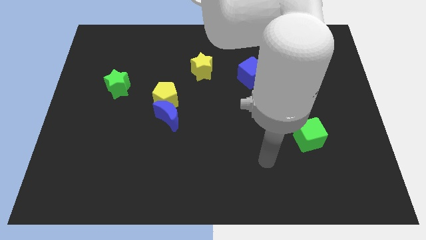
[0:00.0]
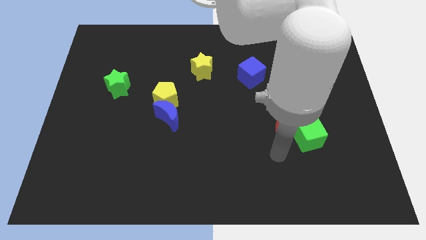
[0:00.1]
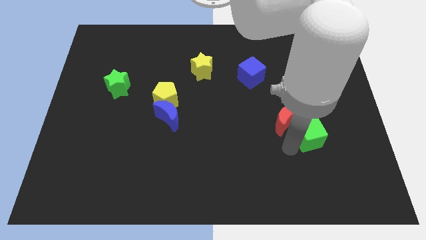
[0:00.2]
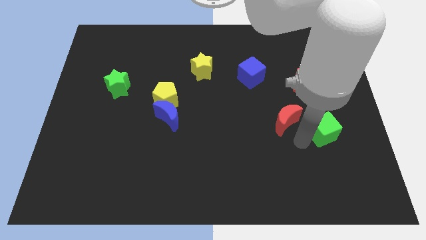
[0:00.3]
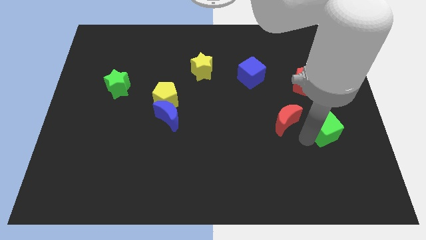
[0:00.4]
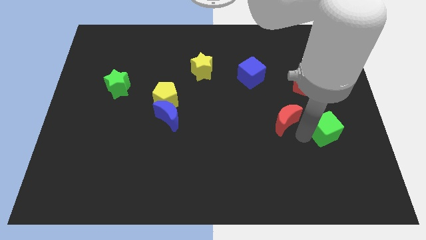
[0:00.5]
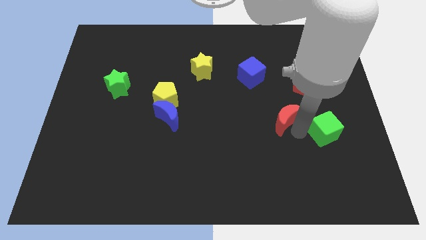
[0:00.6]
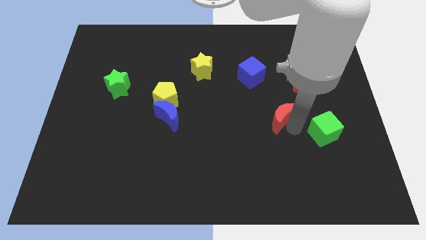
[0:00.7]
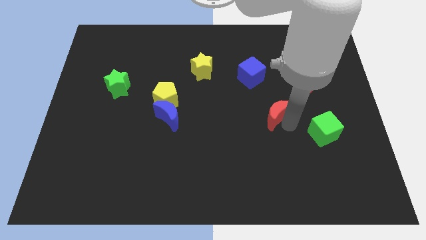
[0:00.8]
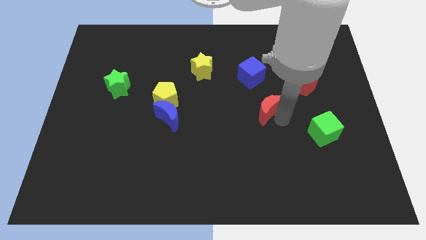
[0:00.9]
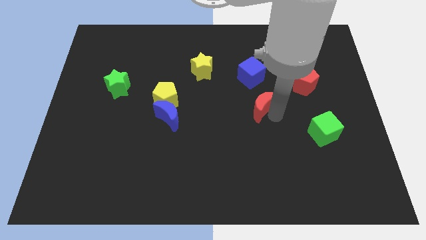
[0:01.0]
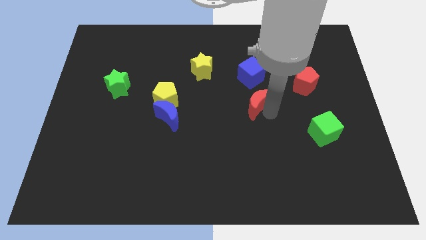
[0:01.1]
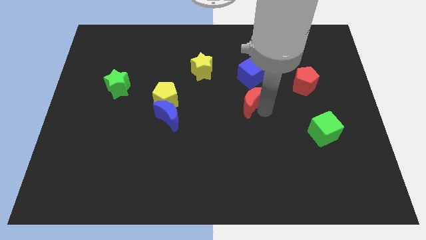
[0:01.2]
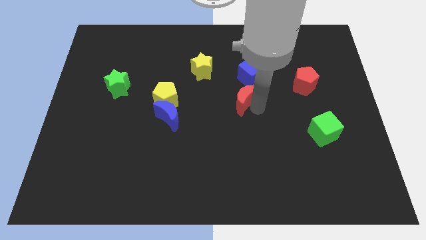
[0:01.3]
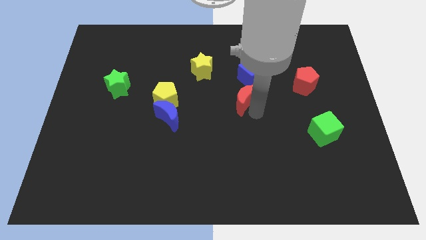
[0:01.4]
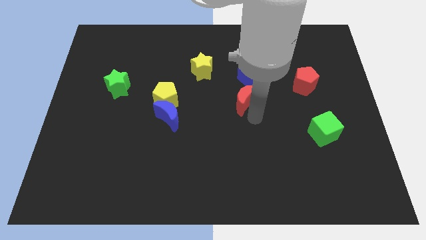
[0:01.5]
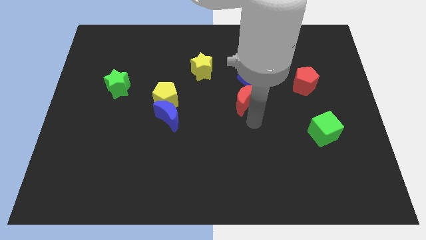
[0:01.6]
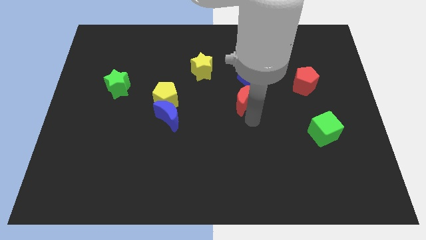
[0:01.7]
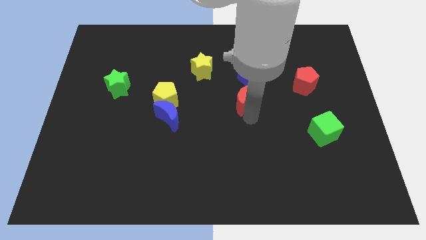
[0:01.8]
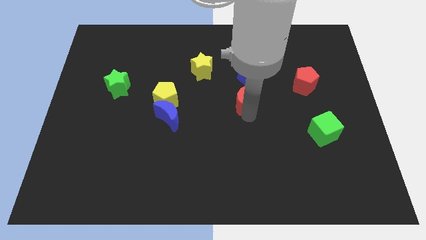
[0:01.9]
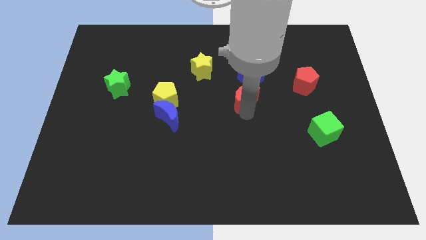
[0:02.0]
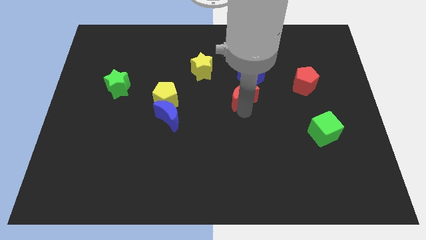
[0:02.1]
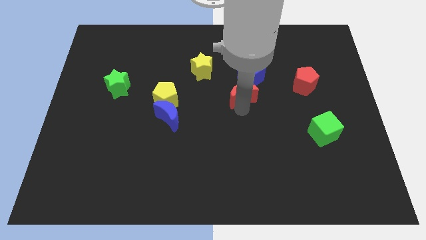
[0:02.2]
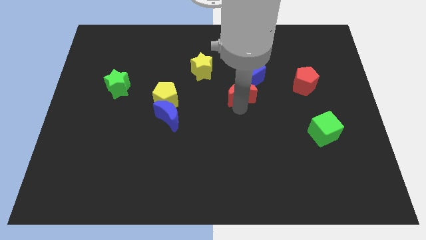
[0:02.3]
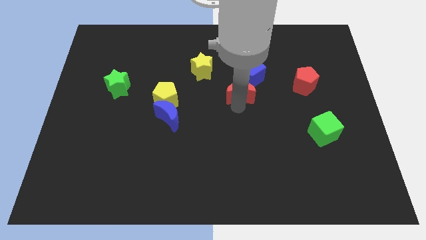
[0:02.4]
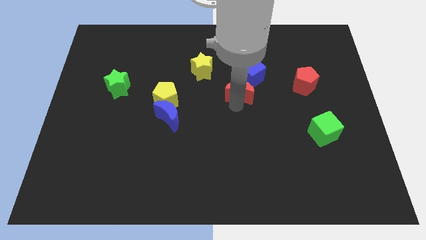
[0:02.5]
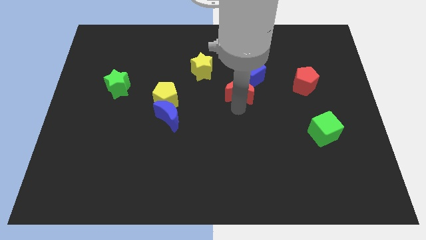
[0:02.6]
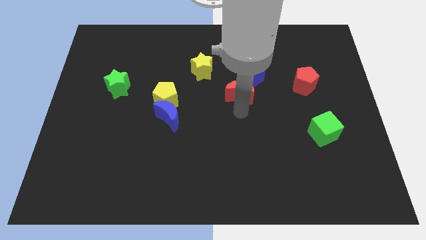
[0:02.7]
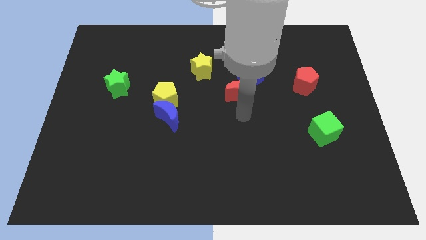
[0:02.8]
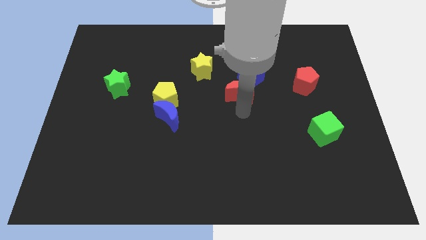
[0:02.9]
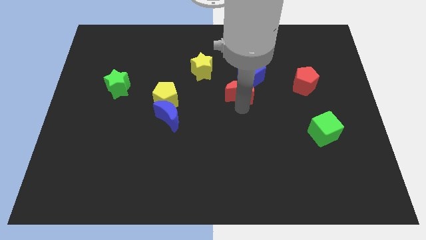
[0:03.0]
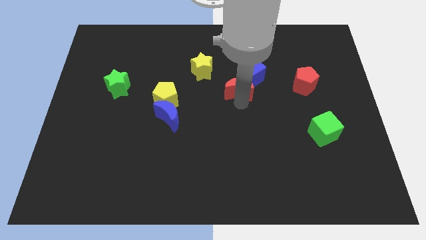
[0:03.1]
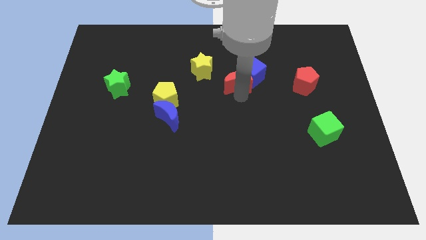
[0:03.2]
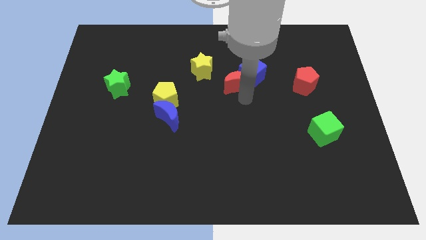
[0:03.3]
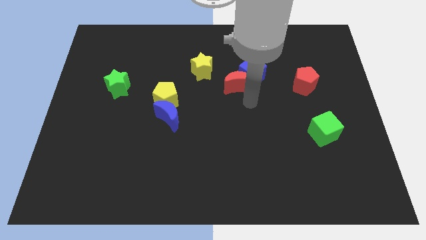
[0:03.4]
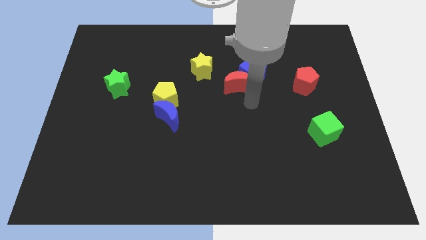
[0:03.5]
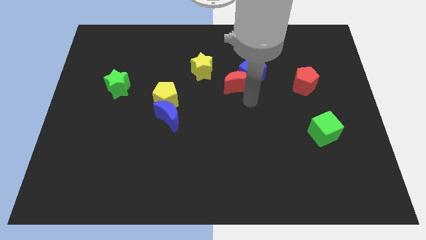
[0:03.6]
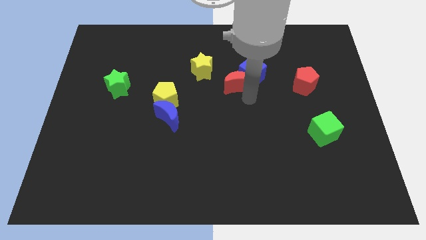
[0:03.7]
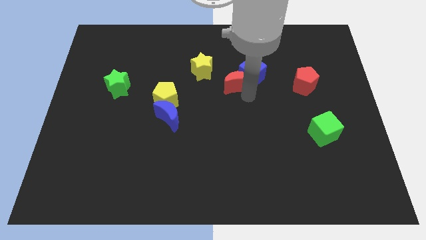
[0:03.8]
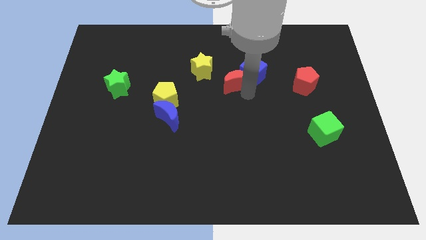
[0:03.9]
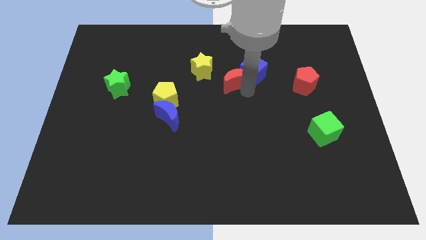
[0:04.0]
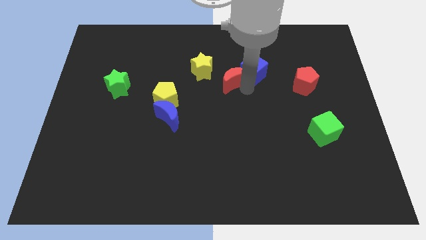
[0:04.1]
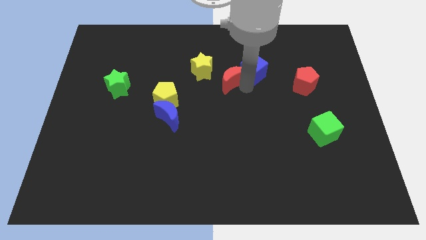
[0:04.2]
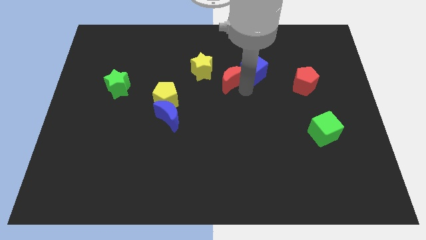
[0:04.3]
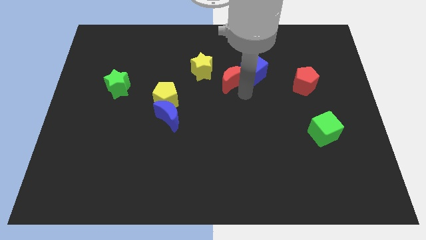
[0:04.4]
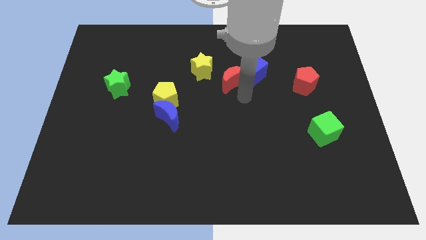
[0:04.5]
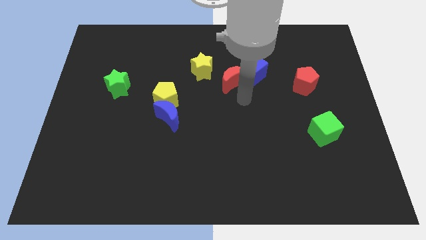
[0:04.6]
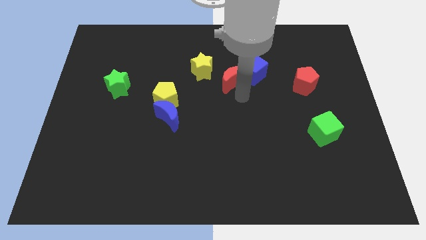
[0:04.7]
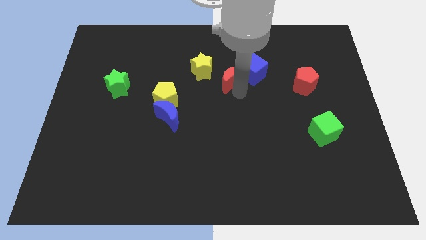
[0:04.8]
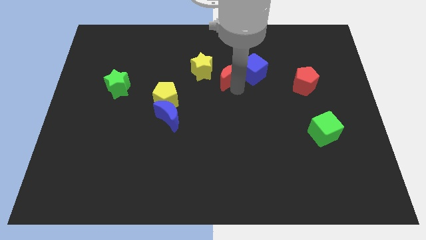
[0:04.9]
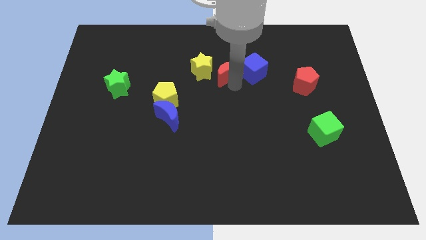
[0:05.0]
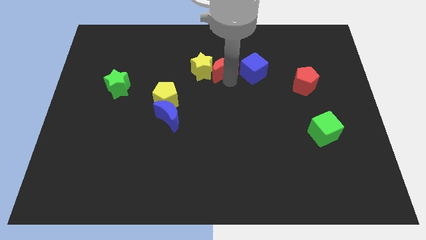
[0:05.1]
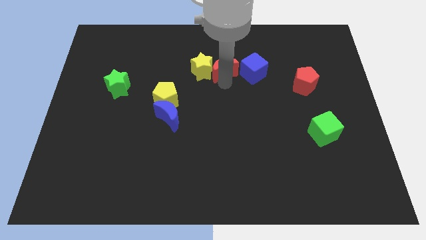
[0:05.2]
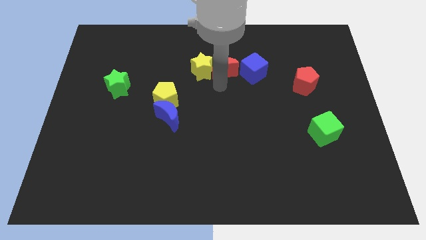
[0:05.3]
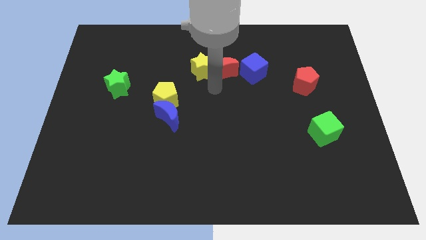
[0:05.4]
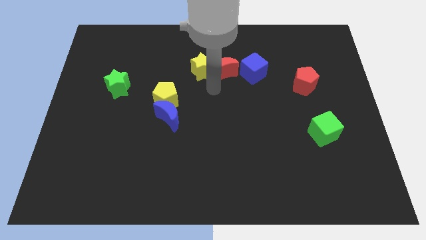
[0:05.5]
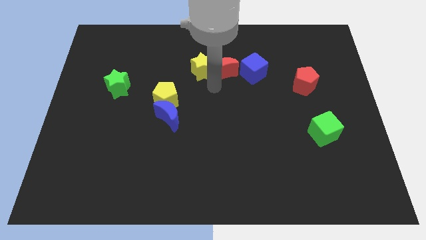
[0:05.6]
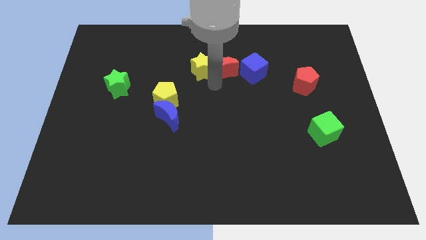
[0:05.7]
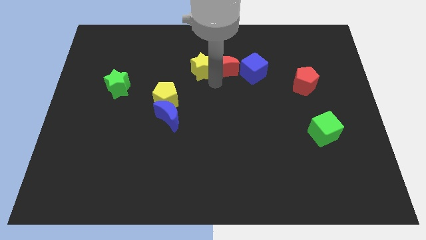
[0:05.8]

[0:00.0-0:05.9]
put the red moon to the top left side of the blue cube

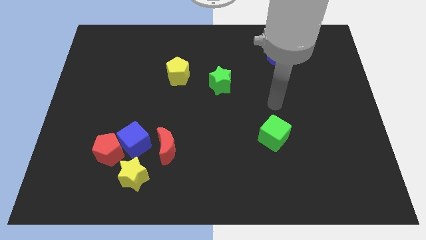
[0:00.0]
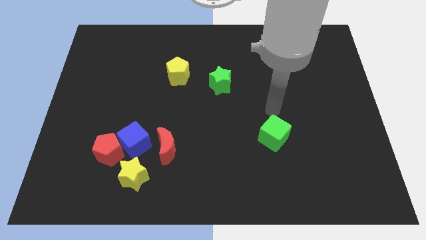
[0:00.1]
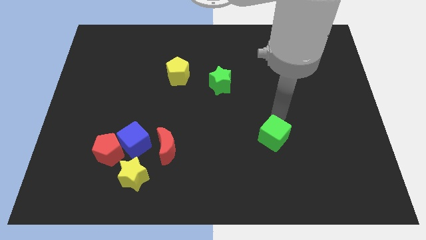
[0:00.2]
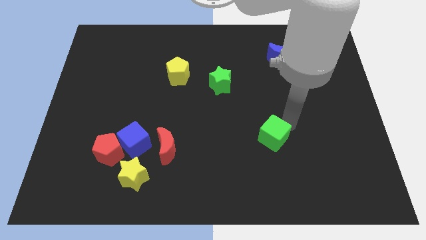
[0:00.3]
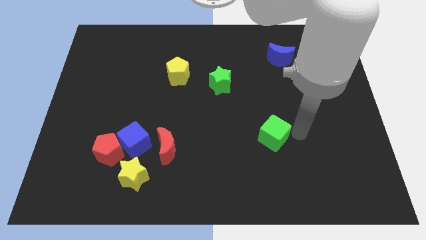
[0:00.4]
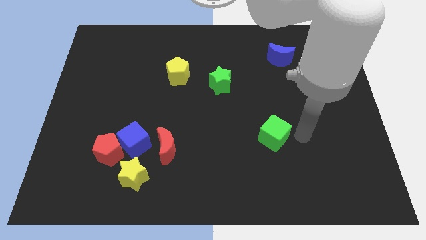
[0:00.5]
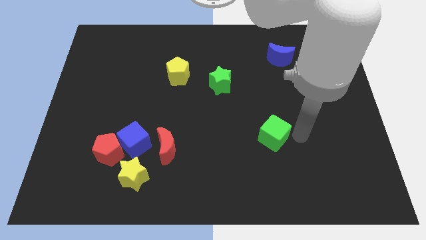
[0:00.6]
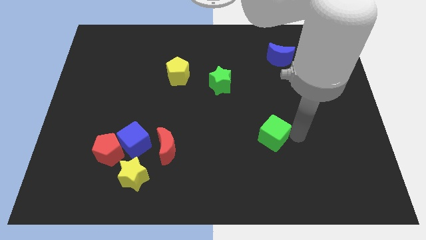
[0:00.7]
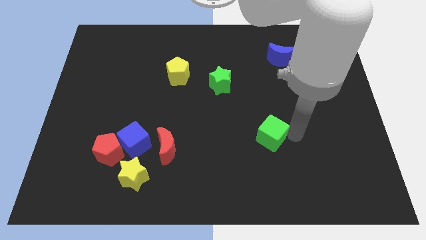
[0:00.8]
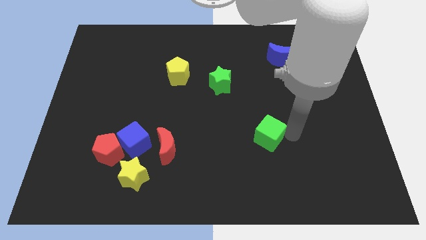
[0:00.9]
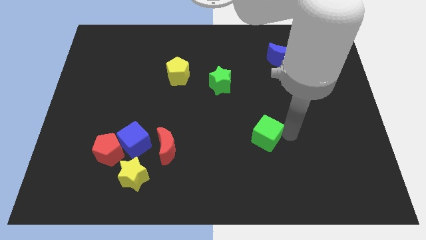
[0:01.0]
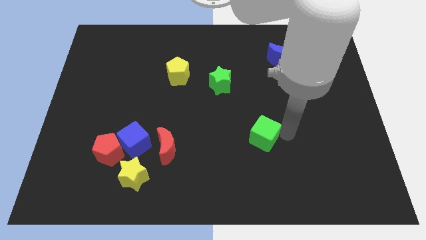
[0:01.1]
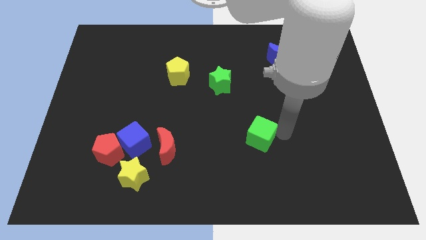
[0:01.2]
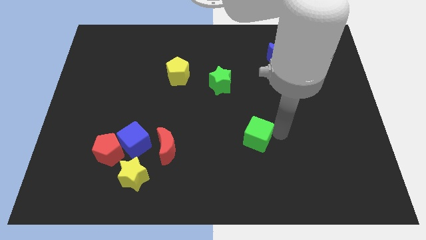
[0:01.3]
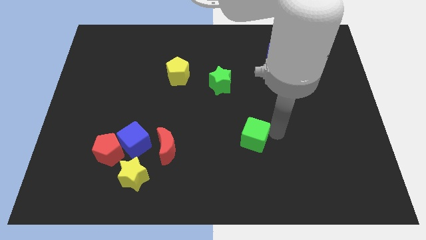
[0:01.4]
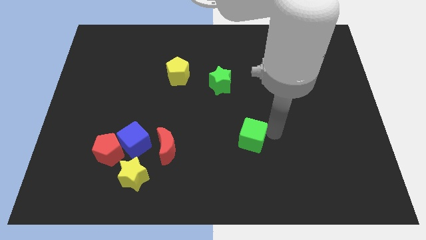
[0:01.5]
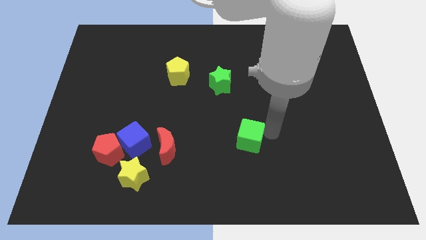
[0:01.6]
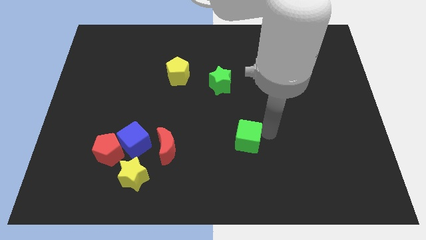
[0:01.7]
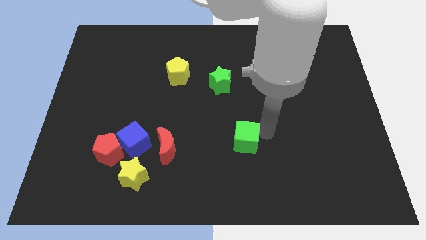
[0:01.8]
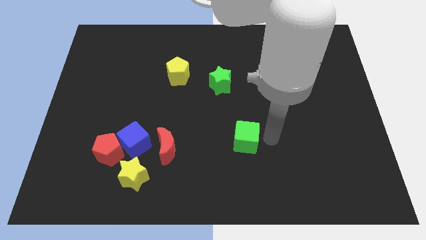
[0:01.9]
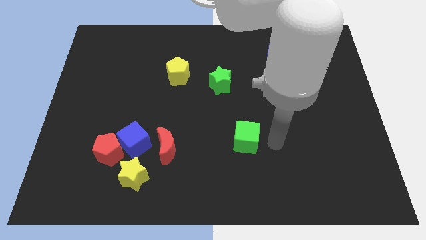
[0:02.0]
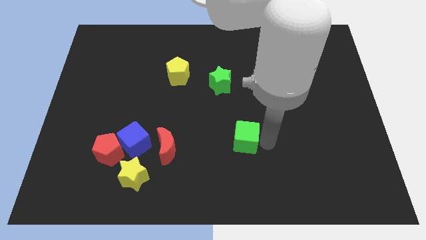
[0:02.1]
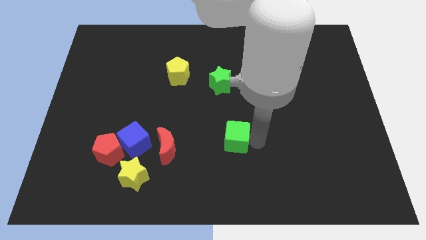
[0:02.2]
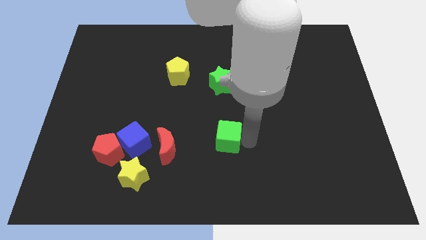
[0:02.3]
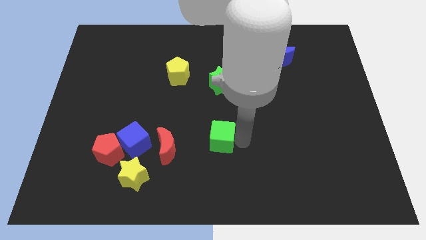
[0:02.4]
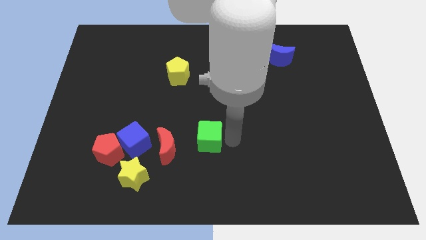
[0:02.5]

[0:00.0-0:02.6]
slide the green cube to the right side of the blue cube
